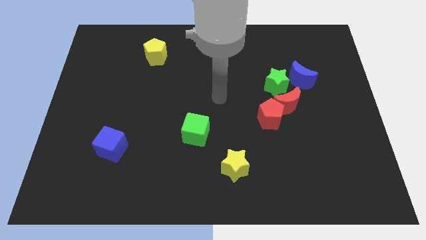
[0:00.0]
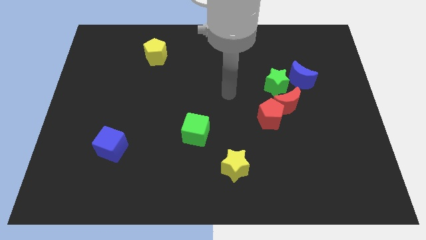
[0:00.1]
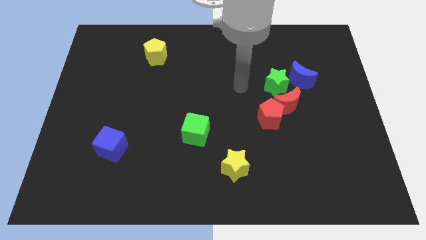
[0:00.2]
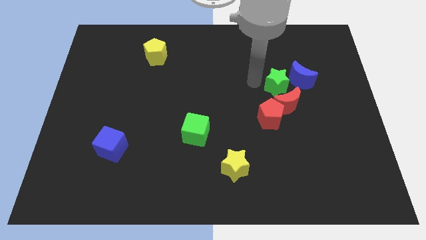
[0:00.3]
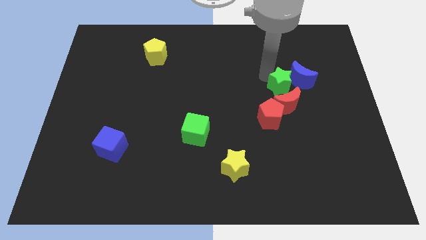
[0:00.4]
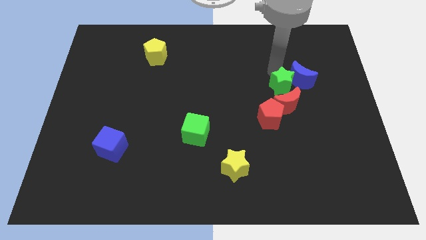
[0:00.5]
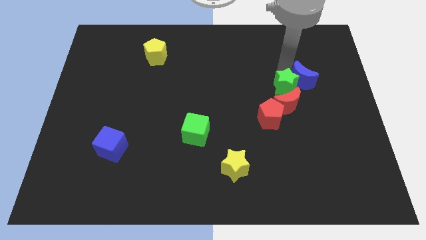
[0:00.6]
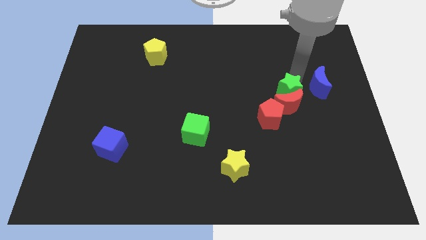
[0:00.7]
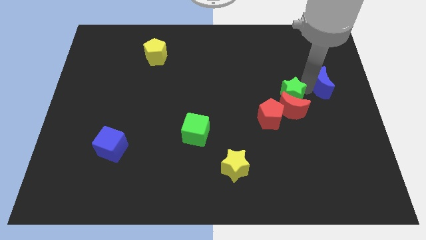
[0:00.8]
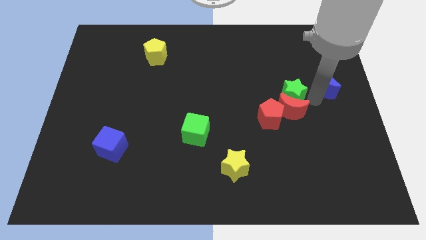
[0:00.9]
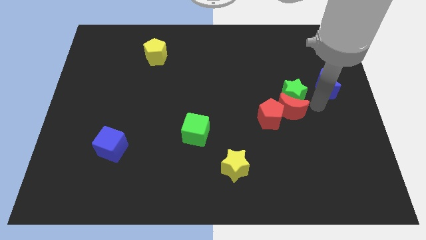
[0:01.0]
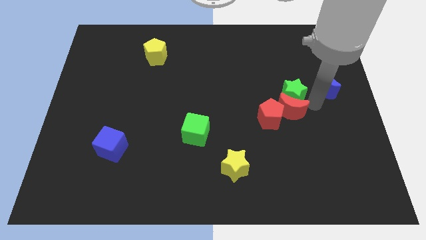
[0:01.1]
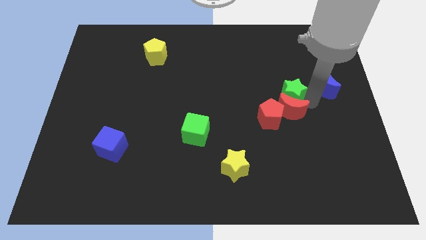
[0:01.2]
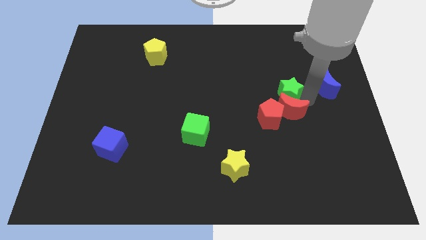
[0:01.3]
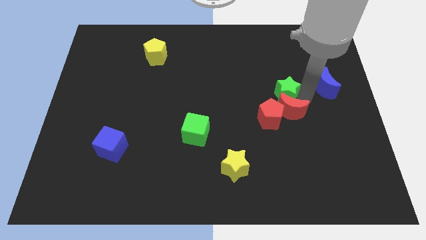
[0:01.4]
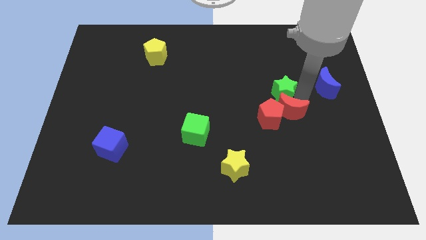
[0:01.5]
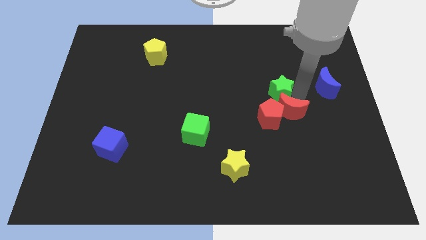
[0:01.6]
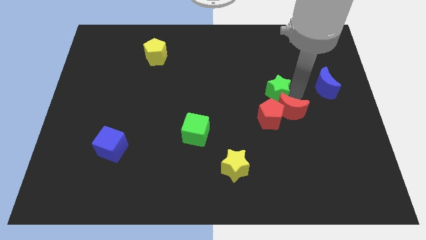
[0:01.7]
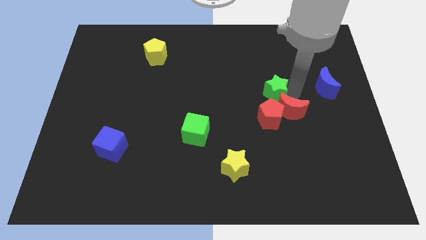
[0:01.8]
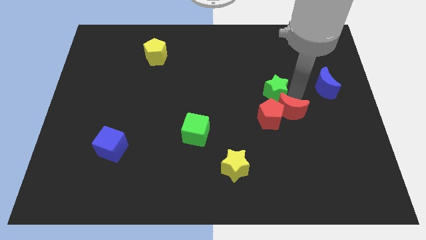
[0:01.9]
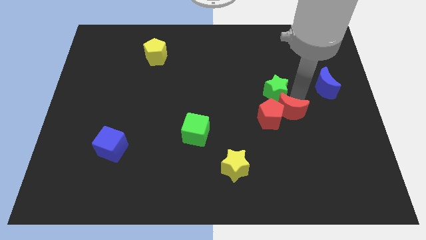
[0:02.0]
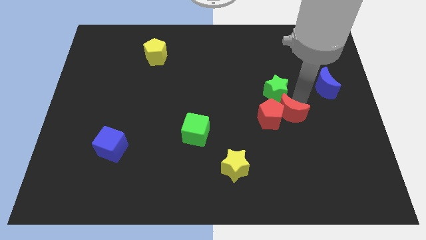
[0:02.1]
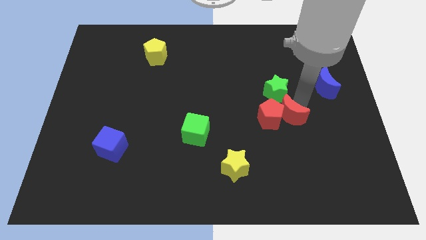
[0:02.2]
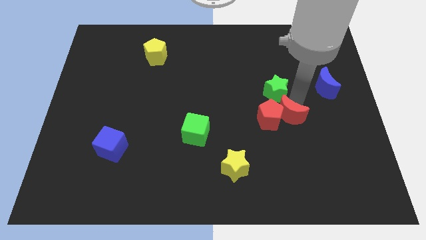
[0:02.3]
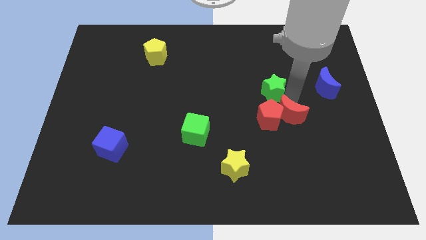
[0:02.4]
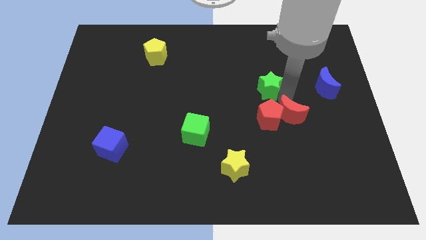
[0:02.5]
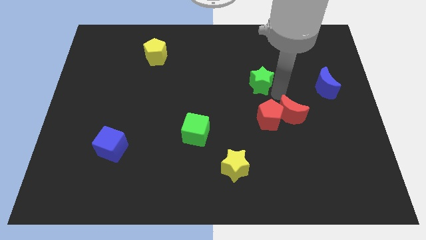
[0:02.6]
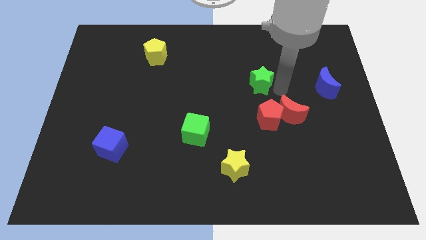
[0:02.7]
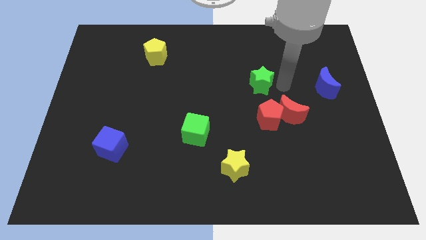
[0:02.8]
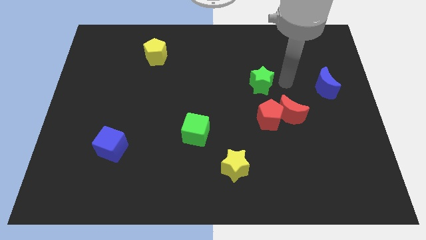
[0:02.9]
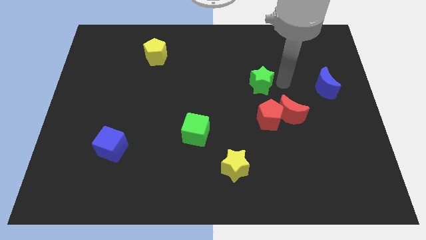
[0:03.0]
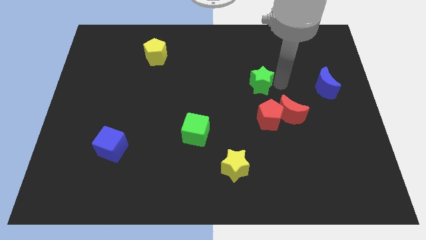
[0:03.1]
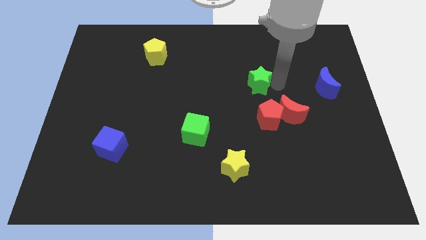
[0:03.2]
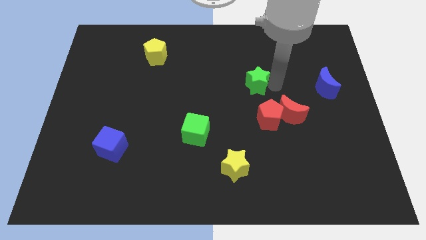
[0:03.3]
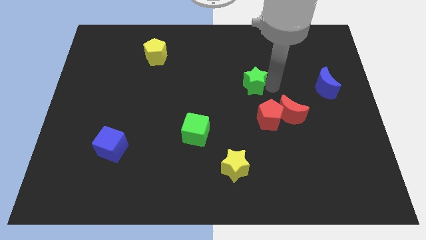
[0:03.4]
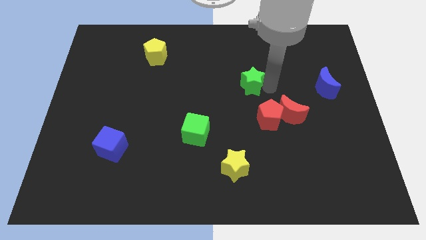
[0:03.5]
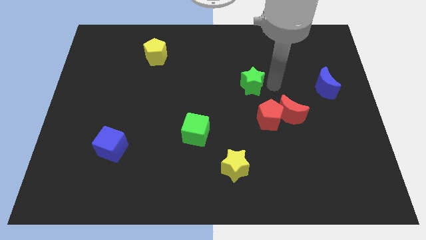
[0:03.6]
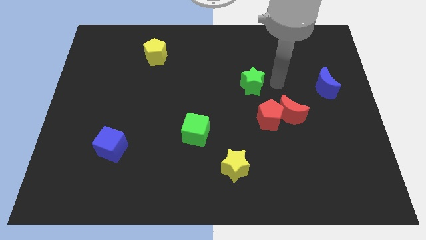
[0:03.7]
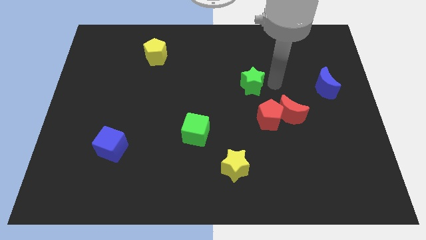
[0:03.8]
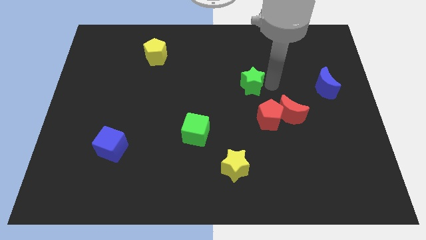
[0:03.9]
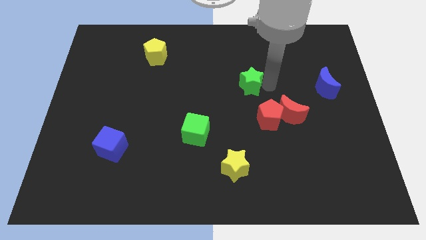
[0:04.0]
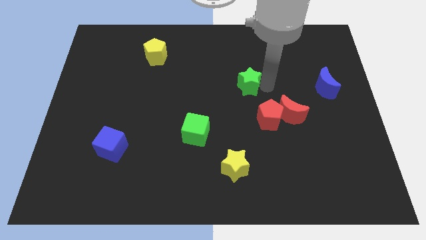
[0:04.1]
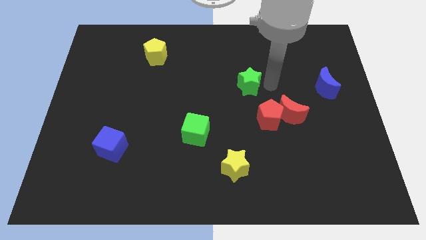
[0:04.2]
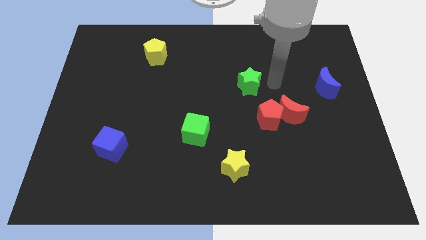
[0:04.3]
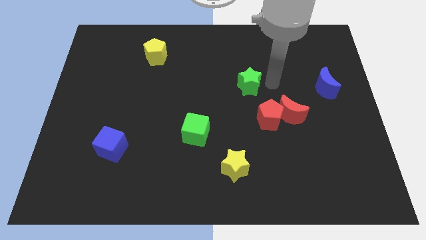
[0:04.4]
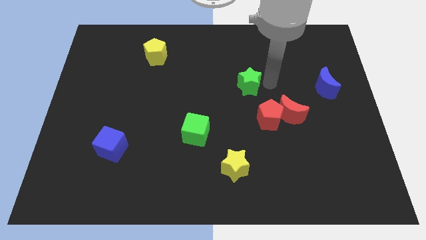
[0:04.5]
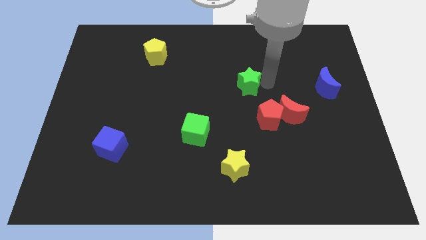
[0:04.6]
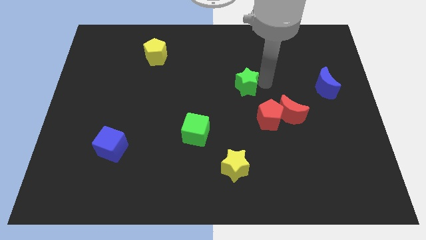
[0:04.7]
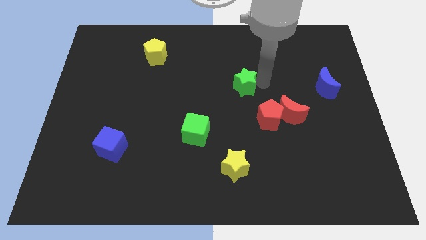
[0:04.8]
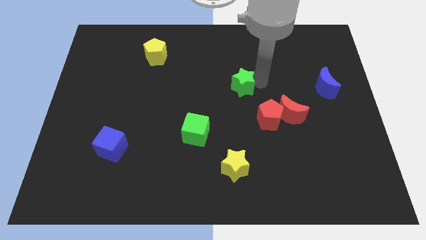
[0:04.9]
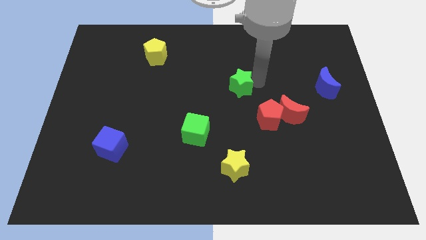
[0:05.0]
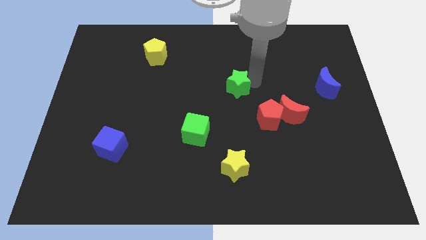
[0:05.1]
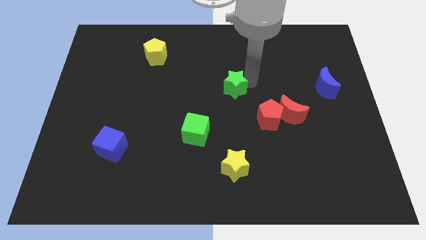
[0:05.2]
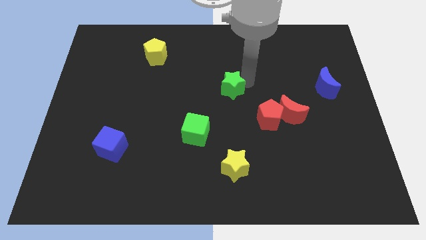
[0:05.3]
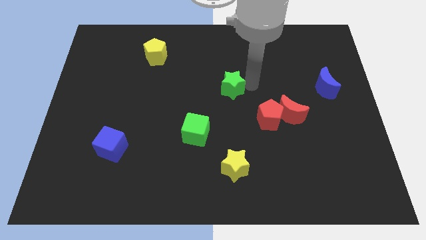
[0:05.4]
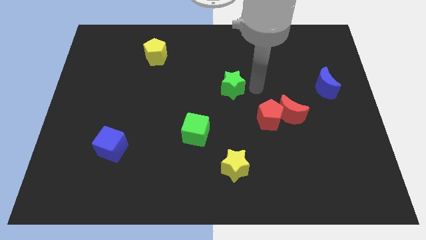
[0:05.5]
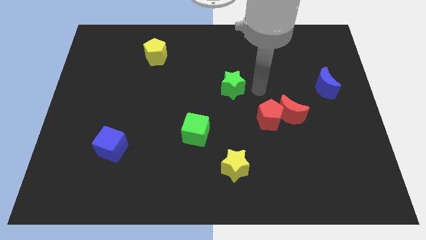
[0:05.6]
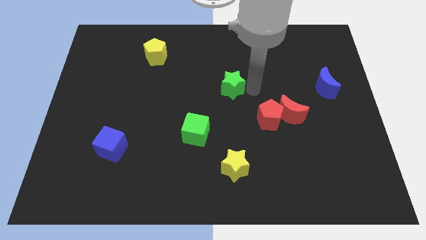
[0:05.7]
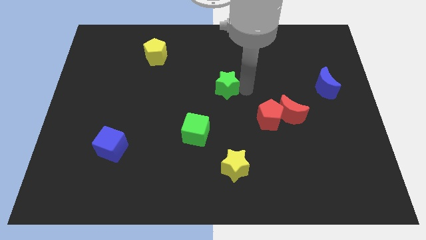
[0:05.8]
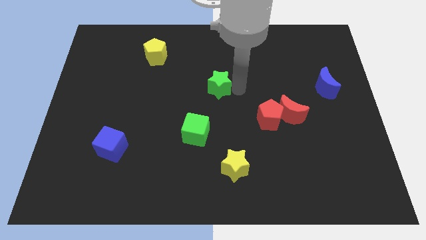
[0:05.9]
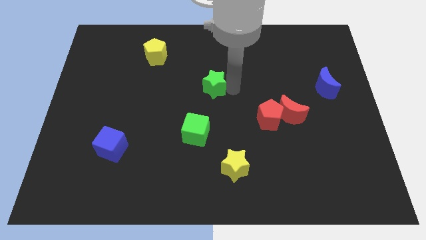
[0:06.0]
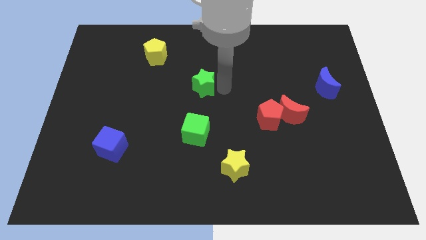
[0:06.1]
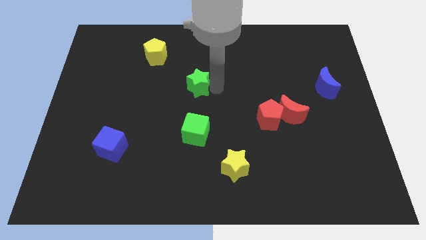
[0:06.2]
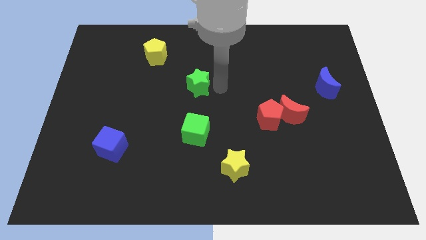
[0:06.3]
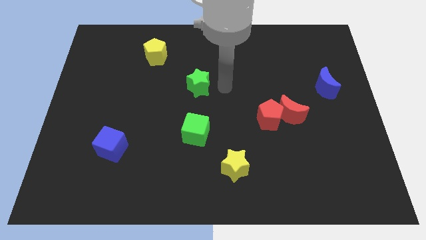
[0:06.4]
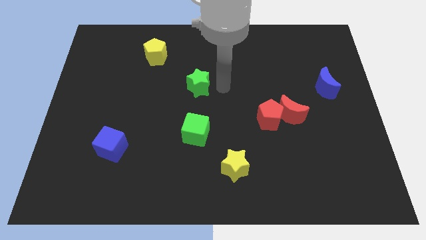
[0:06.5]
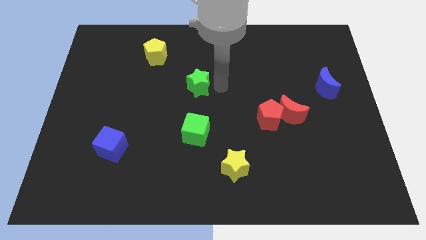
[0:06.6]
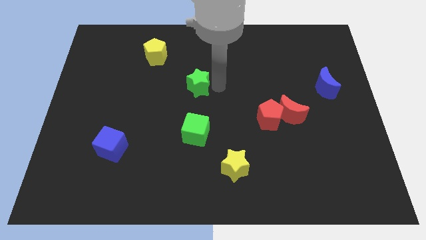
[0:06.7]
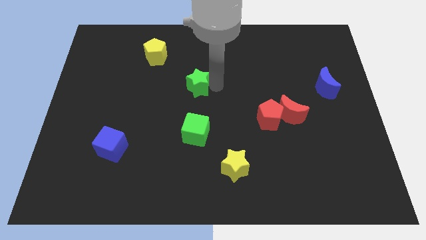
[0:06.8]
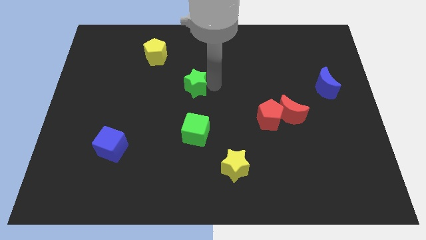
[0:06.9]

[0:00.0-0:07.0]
move the green star left

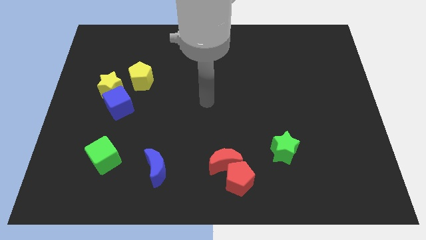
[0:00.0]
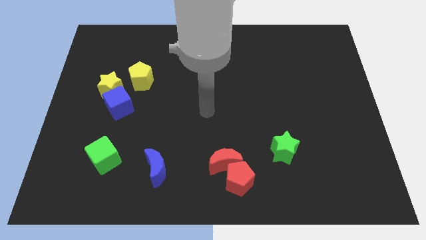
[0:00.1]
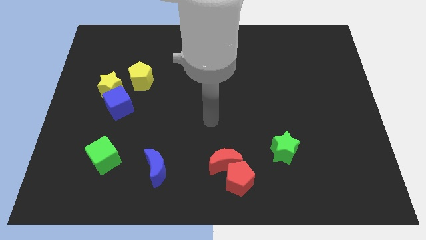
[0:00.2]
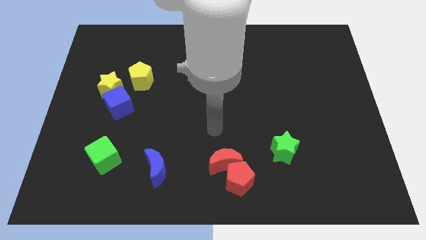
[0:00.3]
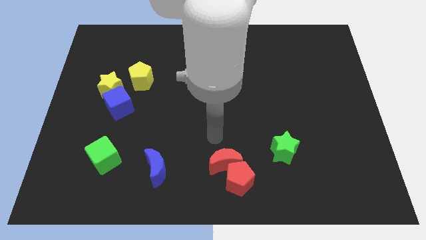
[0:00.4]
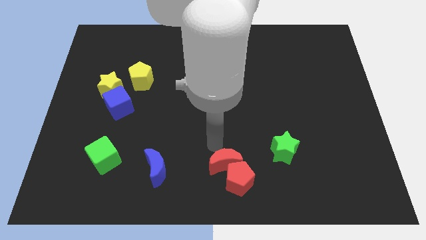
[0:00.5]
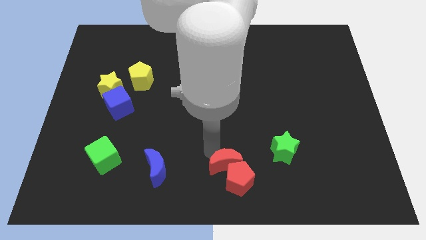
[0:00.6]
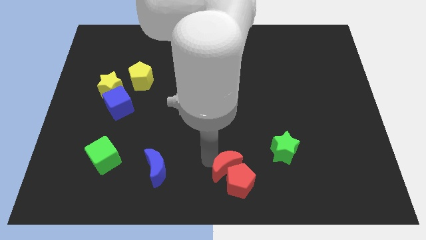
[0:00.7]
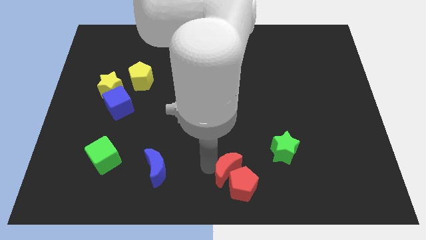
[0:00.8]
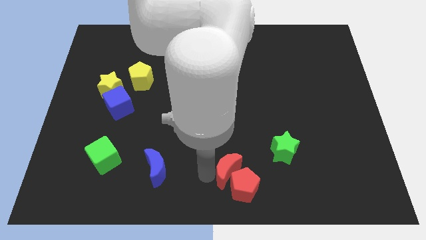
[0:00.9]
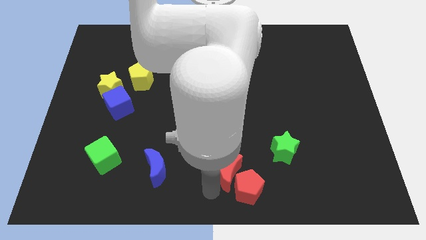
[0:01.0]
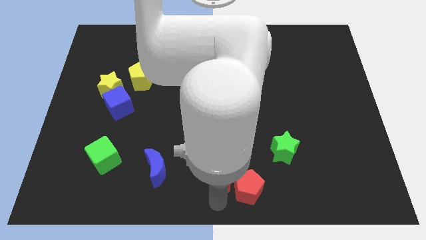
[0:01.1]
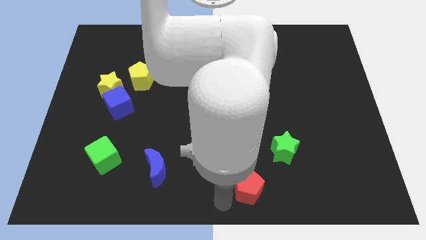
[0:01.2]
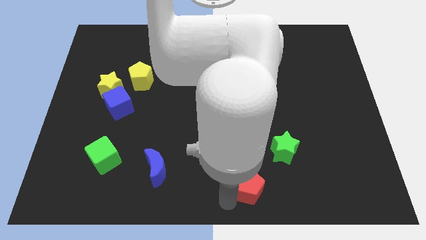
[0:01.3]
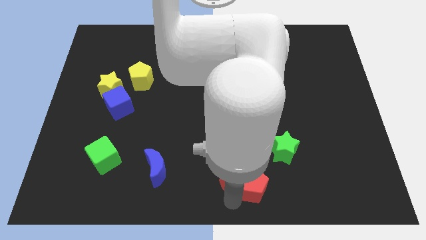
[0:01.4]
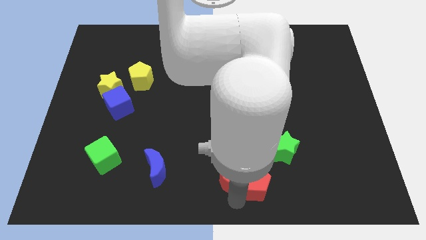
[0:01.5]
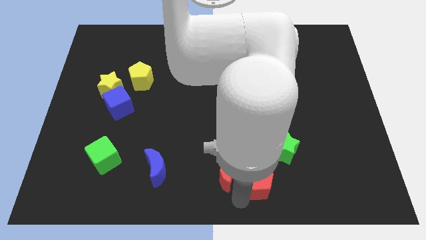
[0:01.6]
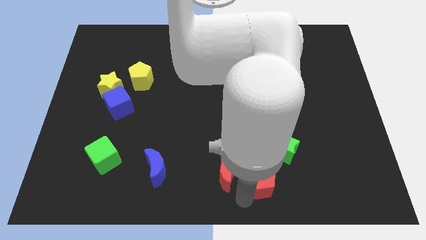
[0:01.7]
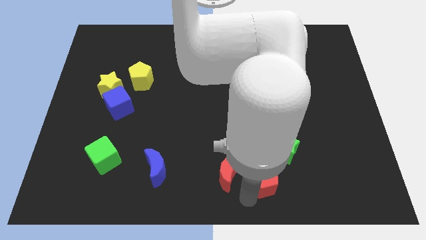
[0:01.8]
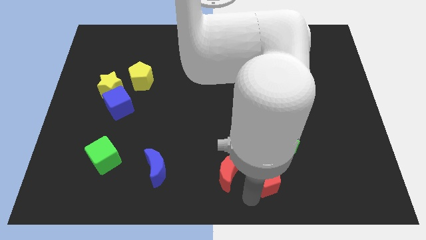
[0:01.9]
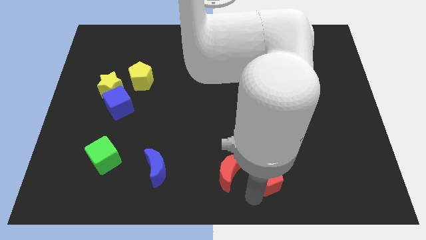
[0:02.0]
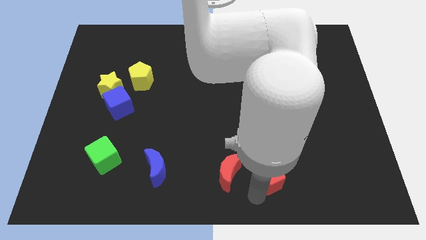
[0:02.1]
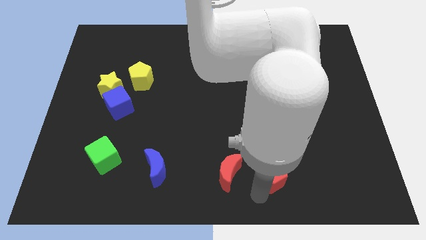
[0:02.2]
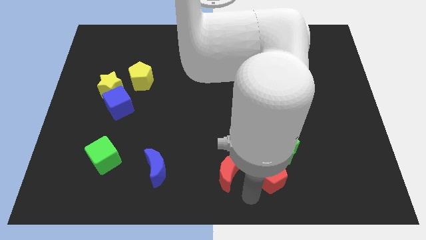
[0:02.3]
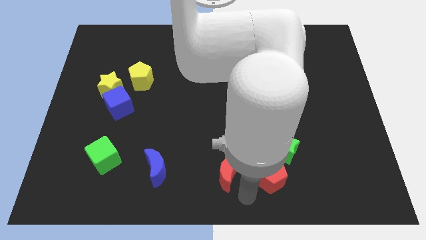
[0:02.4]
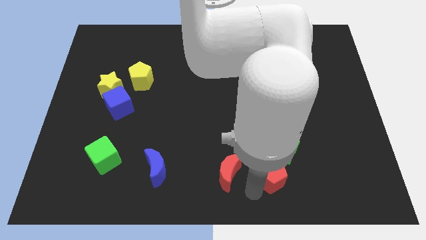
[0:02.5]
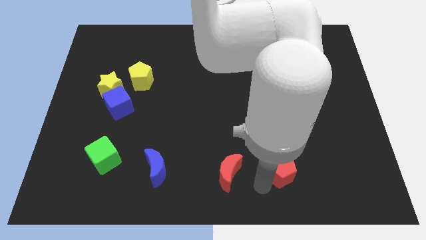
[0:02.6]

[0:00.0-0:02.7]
slide the red pentagon slightly upwards and then to the right
